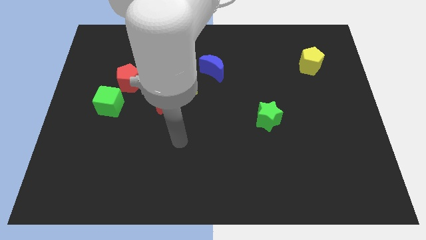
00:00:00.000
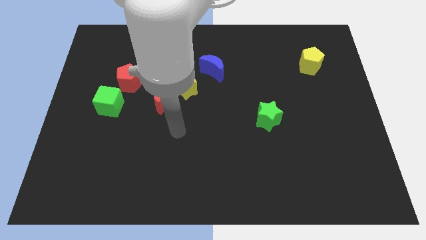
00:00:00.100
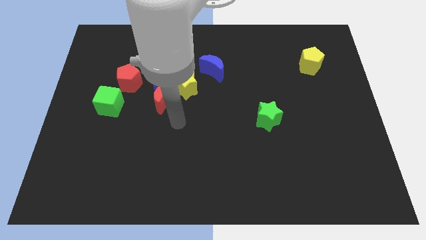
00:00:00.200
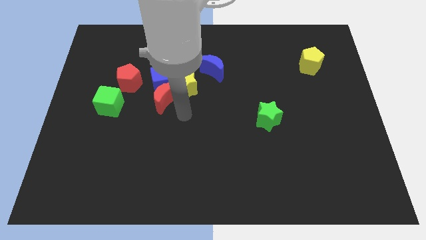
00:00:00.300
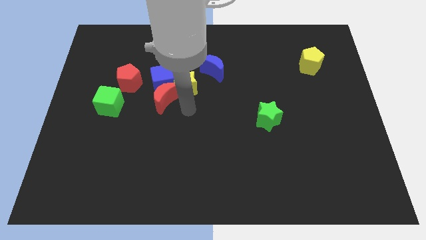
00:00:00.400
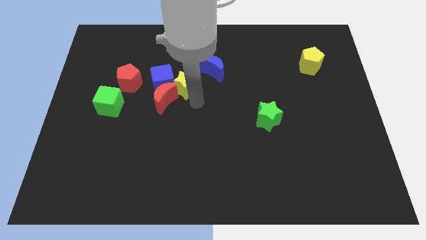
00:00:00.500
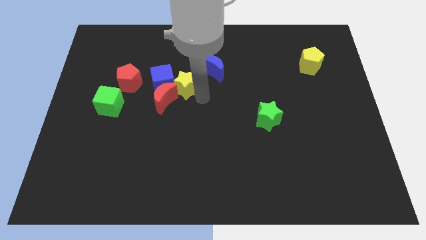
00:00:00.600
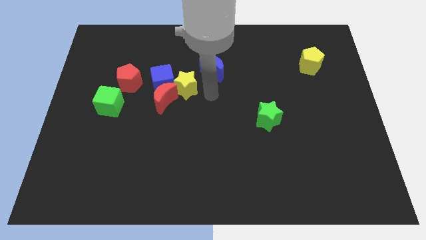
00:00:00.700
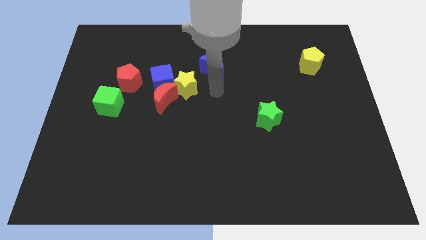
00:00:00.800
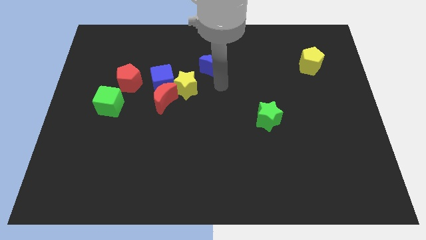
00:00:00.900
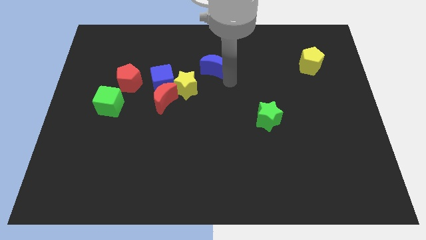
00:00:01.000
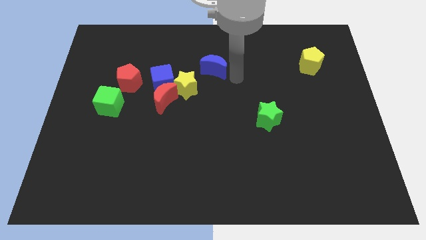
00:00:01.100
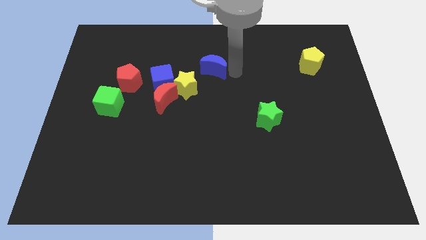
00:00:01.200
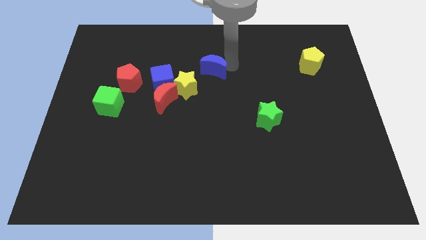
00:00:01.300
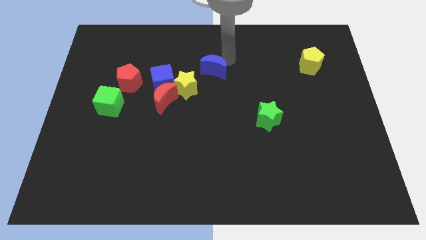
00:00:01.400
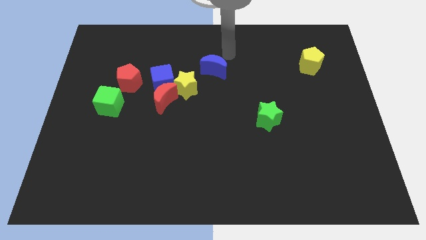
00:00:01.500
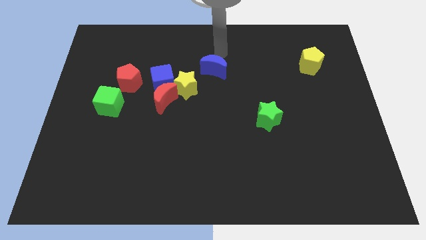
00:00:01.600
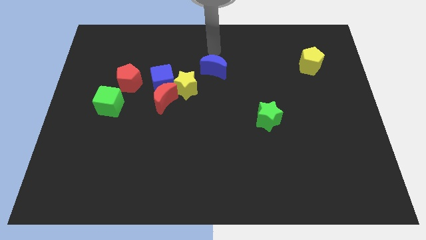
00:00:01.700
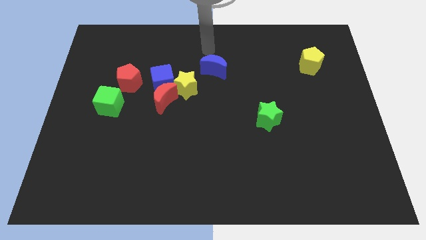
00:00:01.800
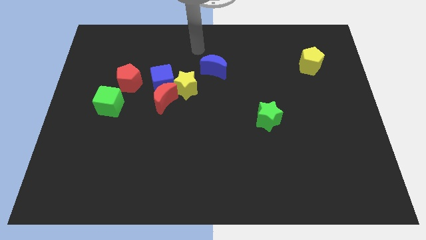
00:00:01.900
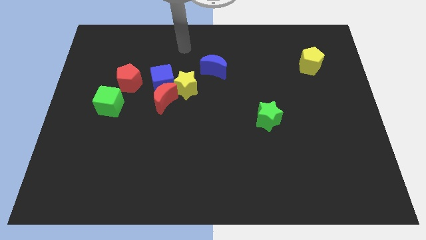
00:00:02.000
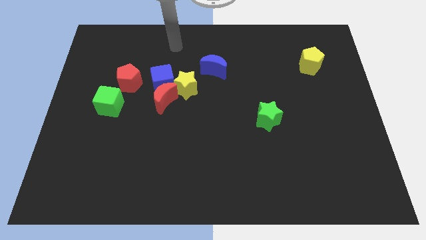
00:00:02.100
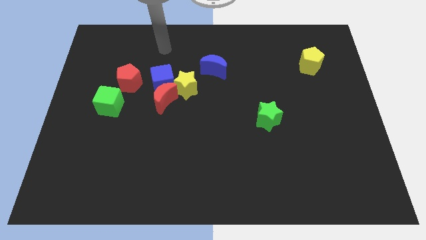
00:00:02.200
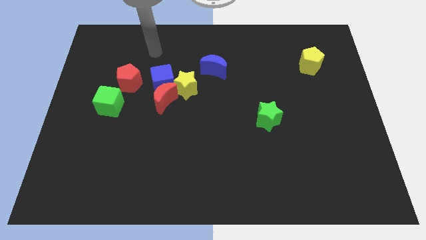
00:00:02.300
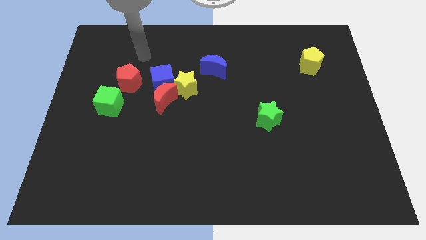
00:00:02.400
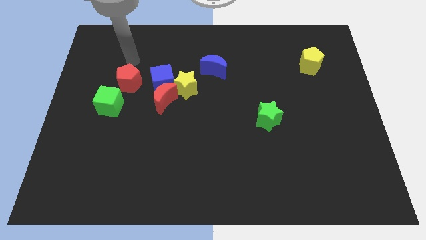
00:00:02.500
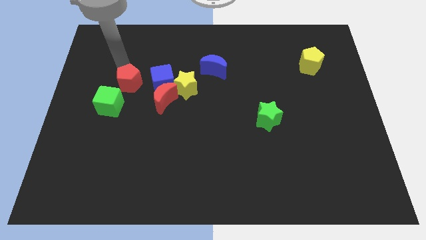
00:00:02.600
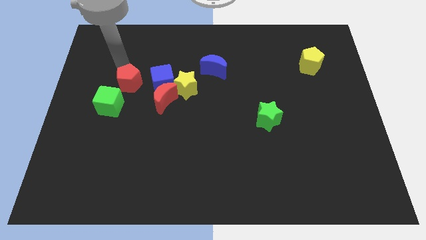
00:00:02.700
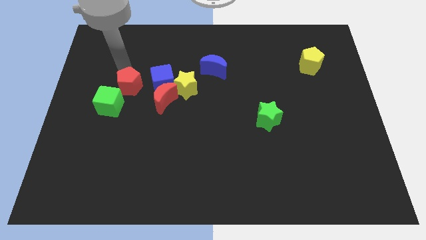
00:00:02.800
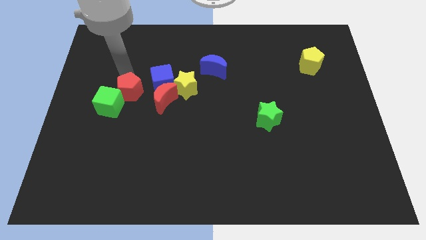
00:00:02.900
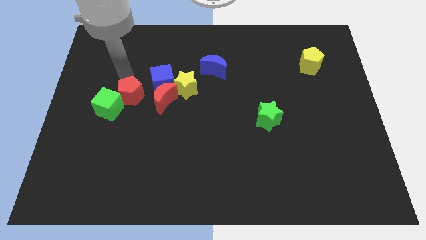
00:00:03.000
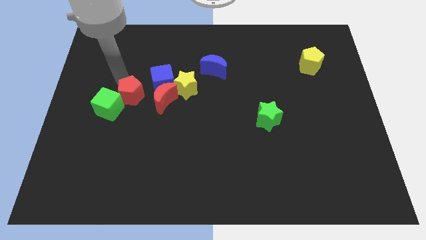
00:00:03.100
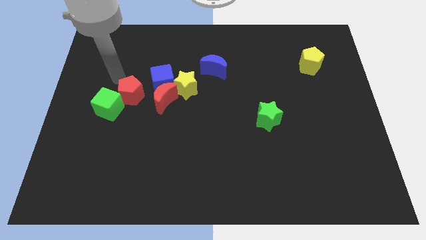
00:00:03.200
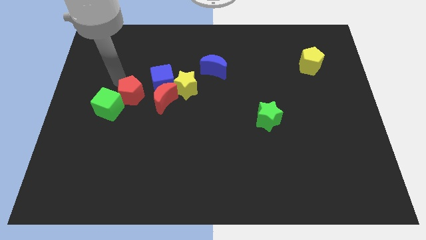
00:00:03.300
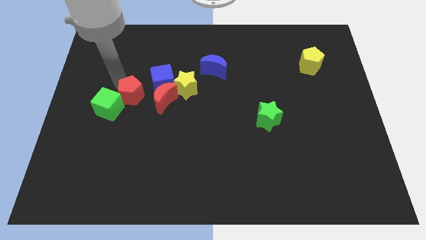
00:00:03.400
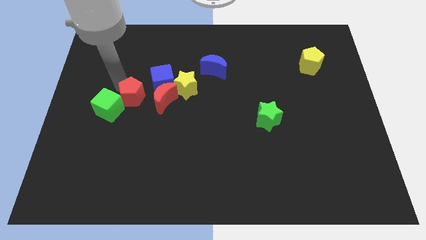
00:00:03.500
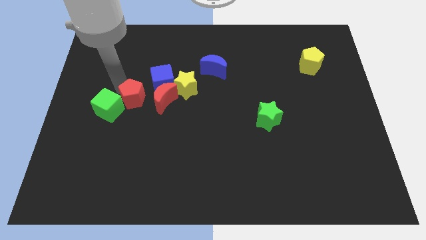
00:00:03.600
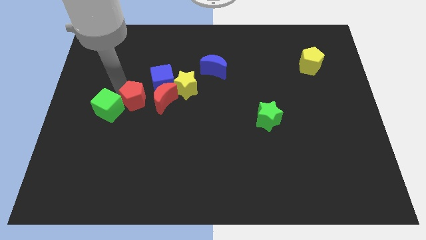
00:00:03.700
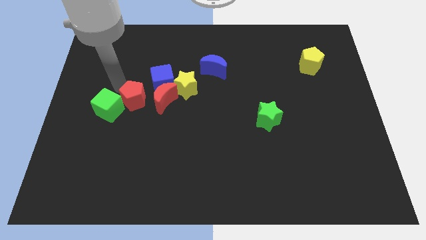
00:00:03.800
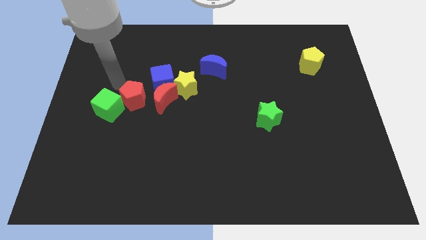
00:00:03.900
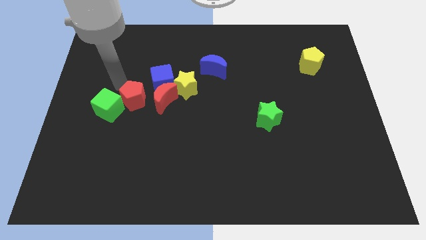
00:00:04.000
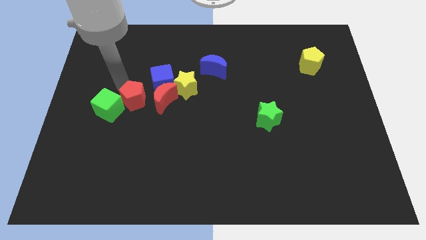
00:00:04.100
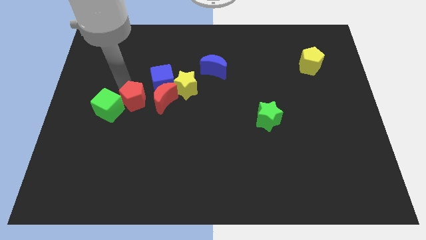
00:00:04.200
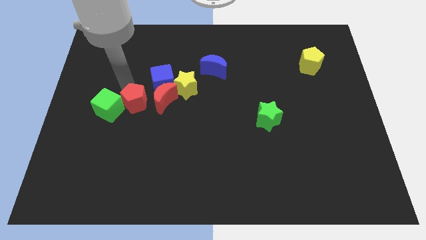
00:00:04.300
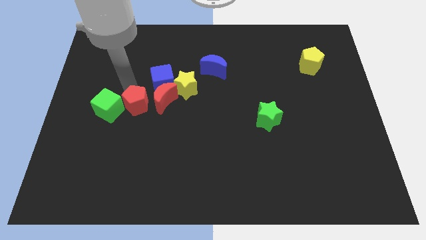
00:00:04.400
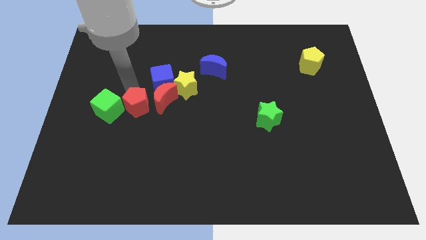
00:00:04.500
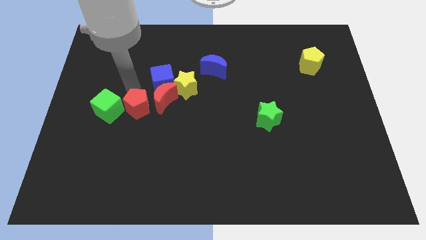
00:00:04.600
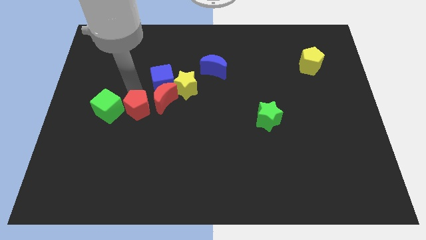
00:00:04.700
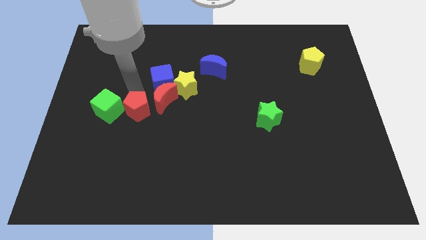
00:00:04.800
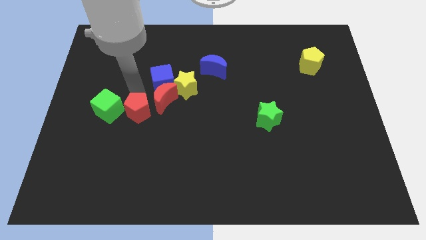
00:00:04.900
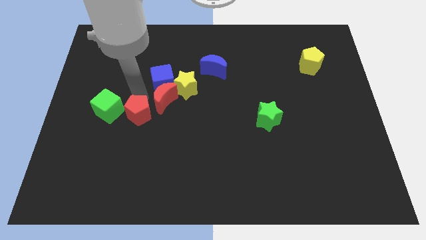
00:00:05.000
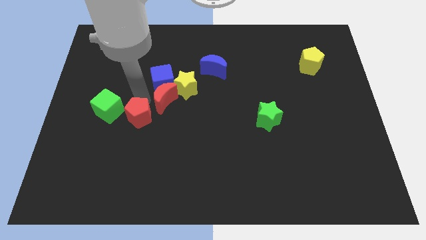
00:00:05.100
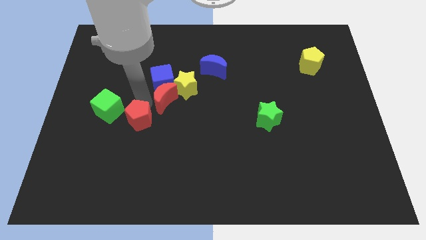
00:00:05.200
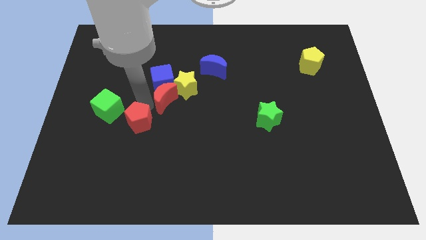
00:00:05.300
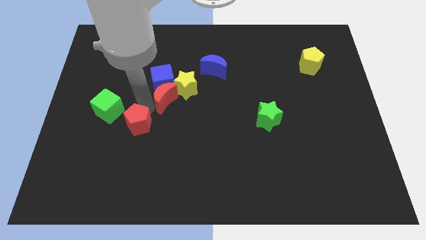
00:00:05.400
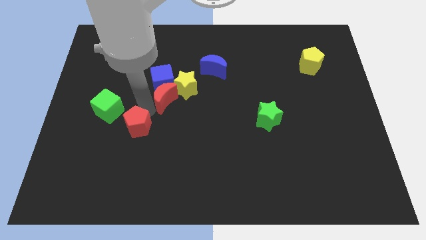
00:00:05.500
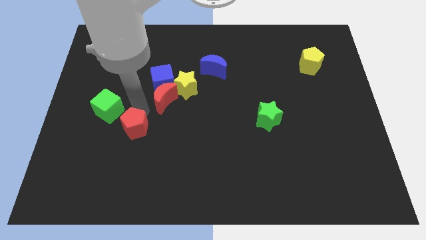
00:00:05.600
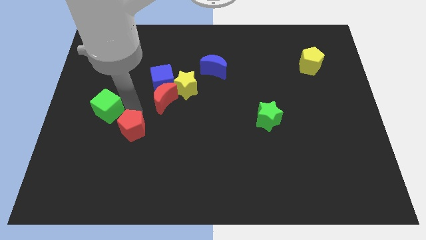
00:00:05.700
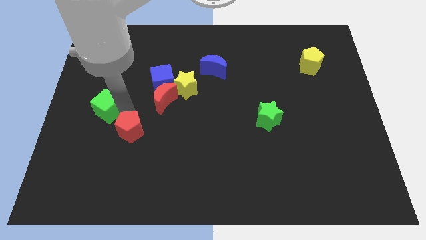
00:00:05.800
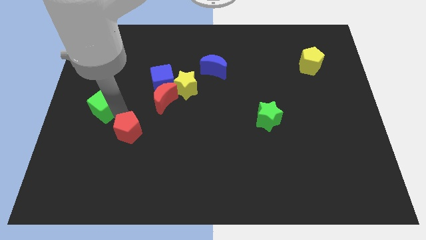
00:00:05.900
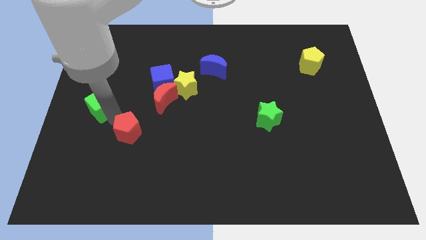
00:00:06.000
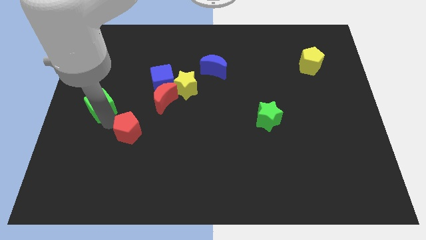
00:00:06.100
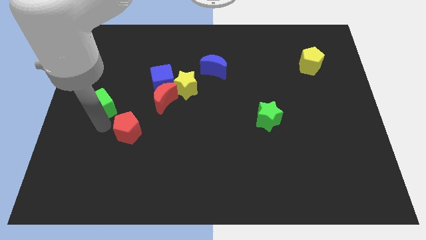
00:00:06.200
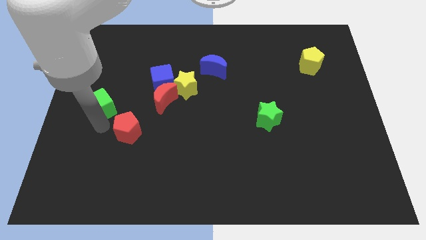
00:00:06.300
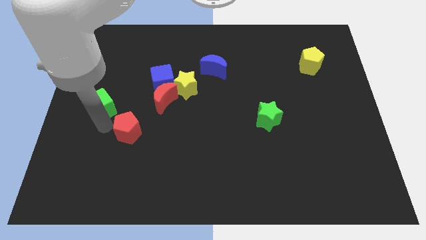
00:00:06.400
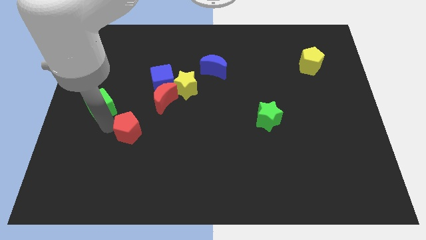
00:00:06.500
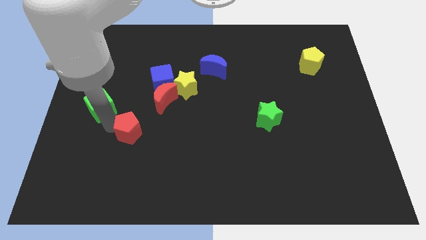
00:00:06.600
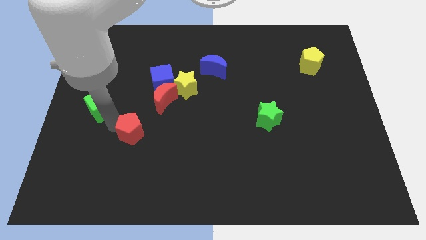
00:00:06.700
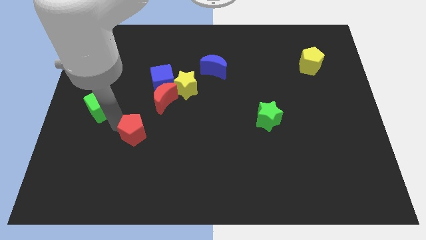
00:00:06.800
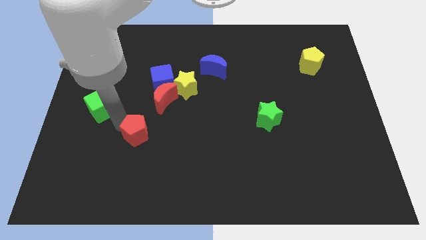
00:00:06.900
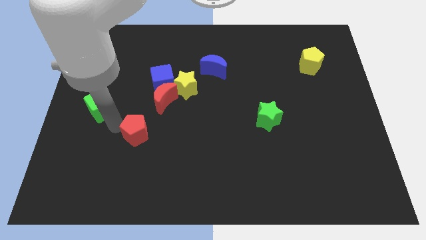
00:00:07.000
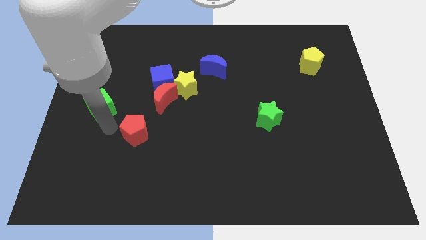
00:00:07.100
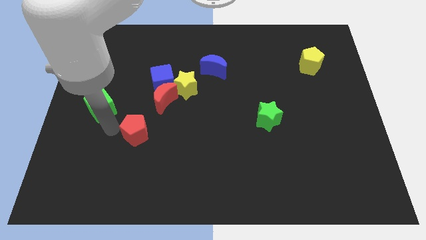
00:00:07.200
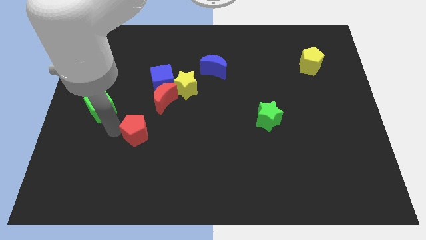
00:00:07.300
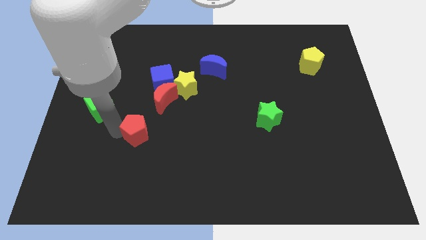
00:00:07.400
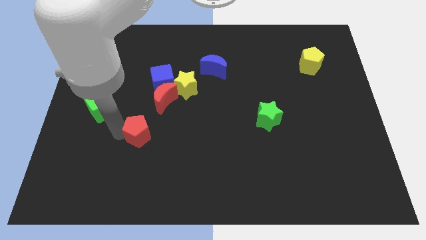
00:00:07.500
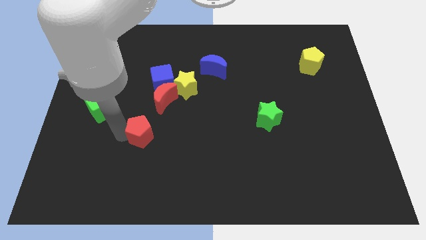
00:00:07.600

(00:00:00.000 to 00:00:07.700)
slide the red pentagon below the red moon
